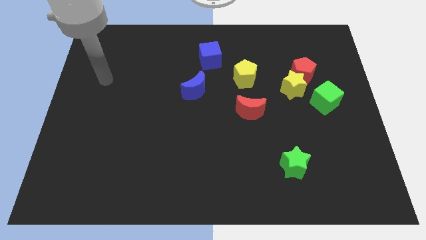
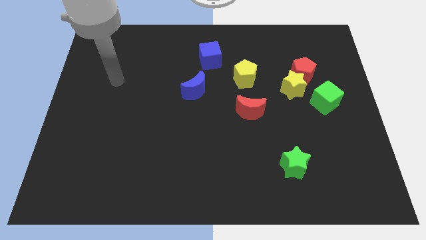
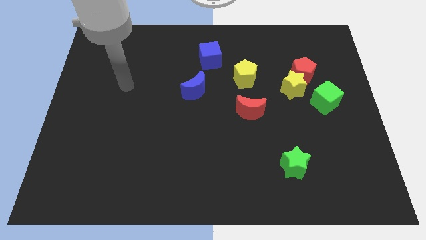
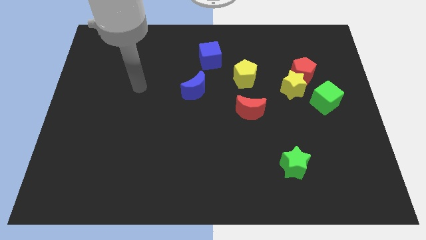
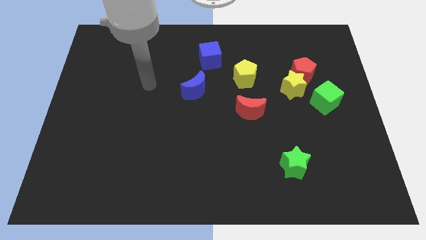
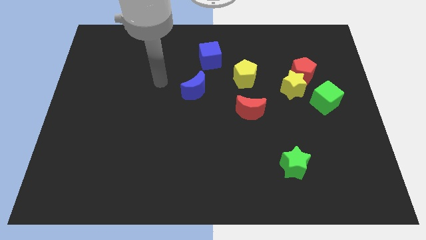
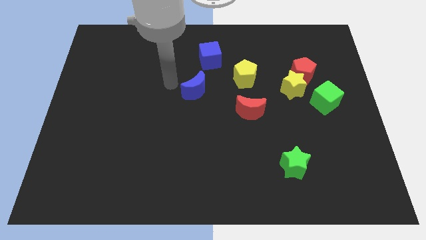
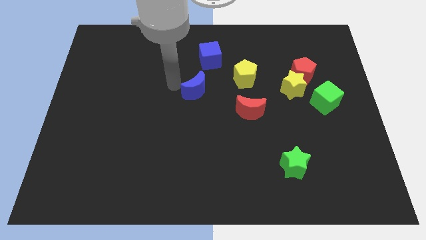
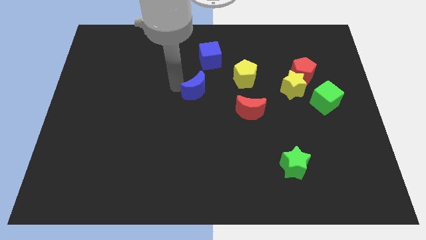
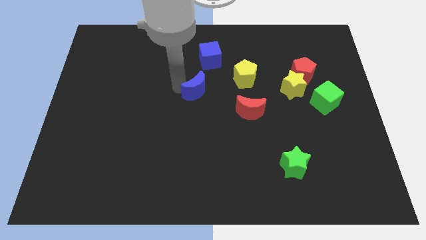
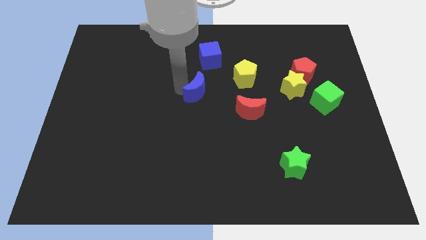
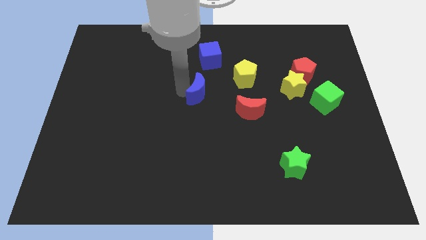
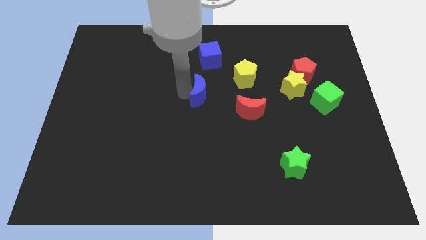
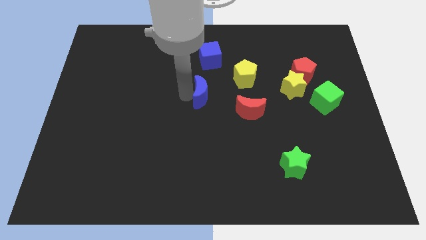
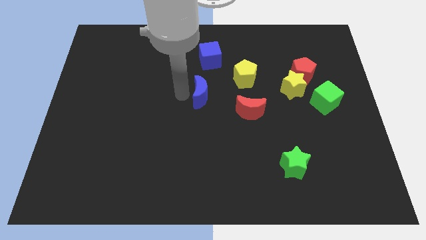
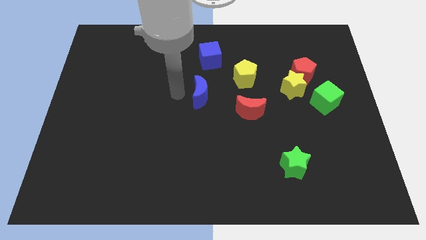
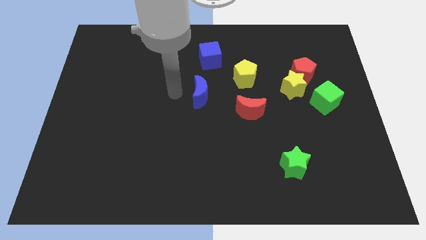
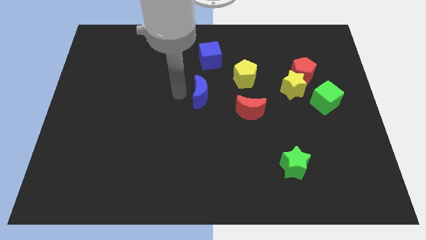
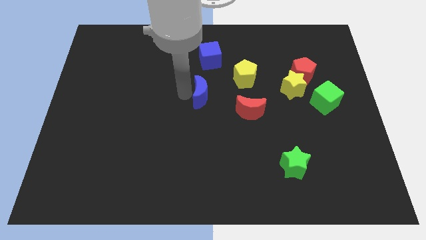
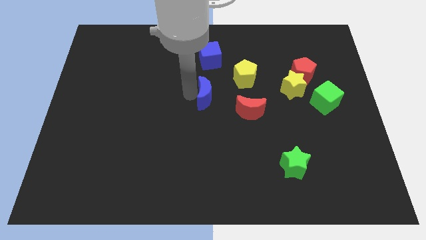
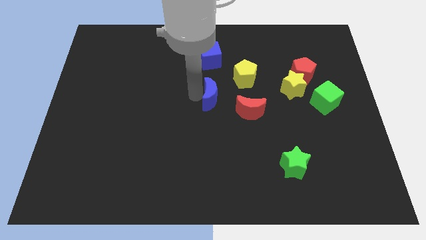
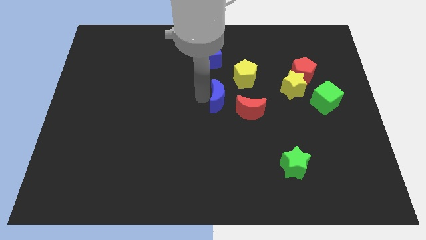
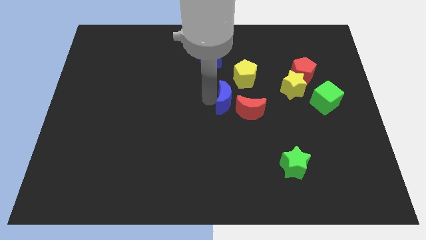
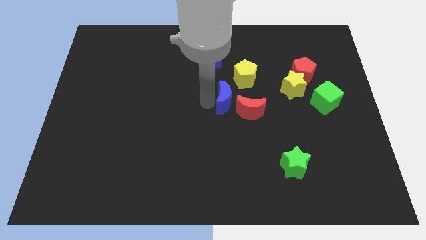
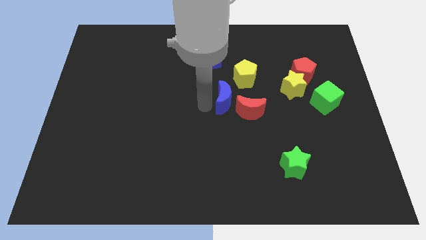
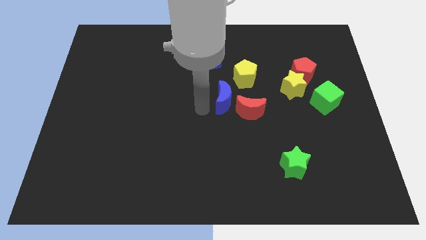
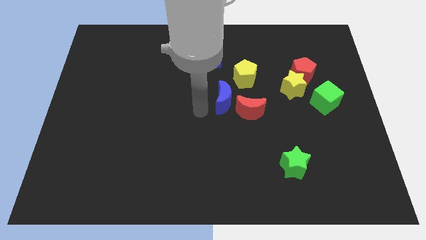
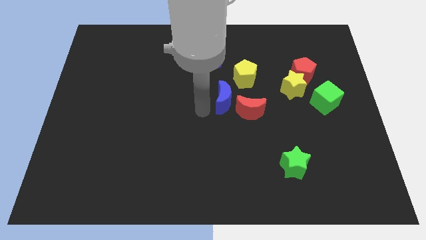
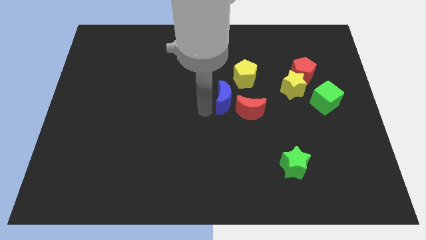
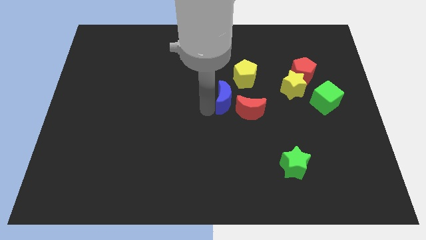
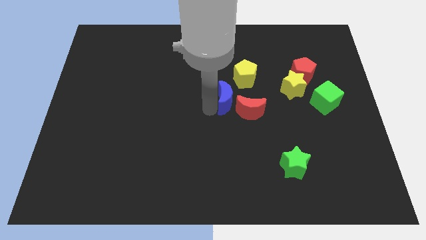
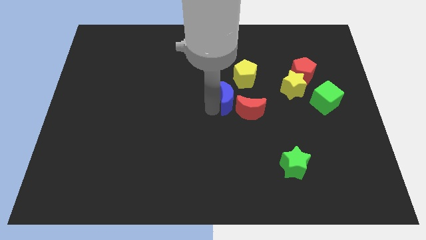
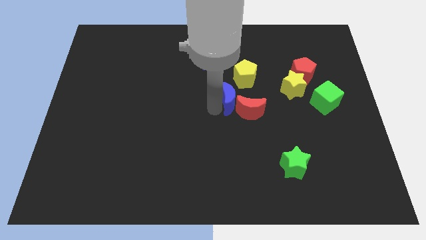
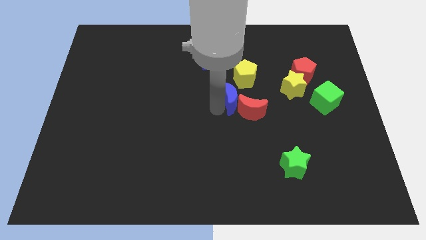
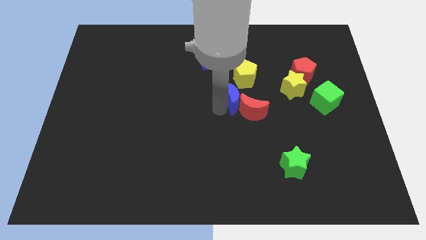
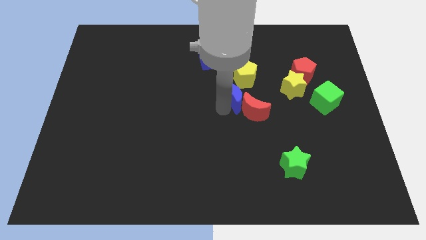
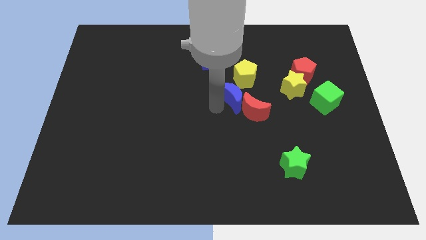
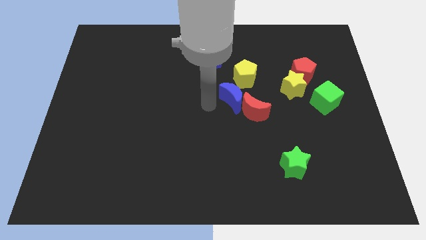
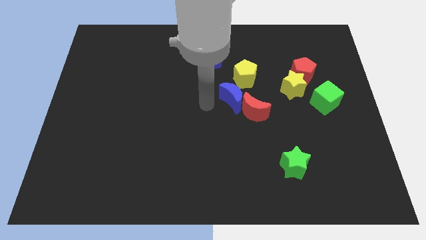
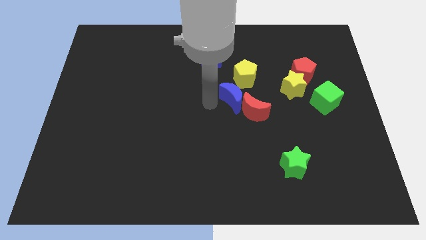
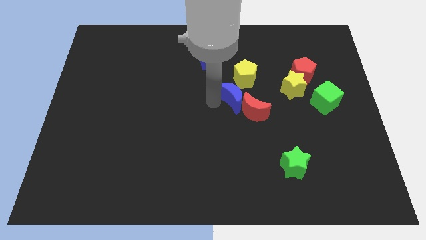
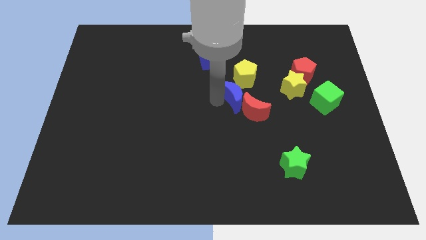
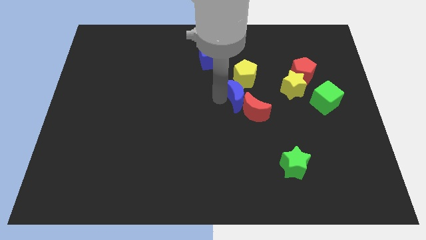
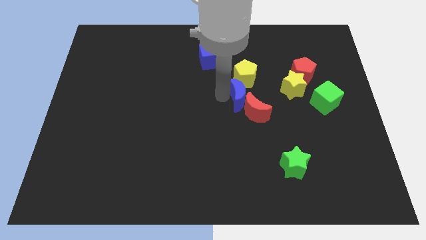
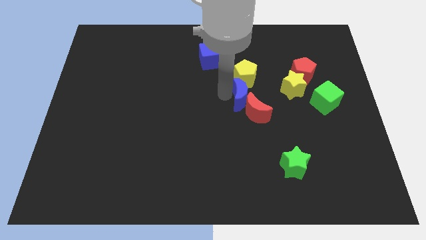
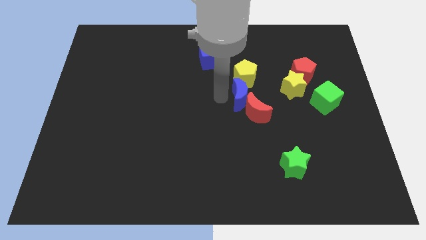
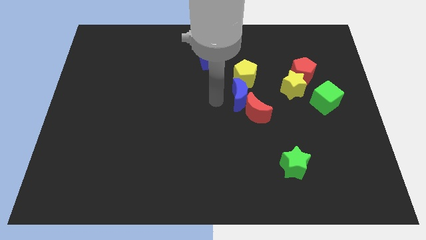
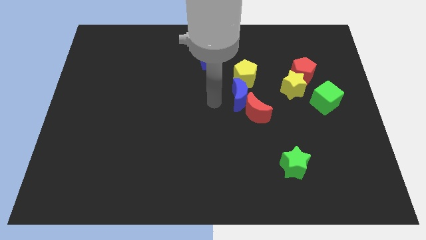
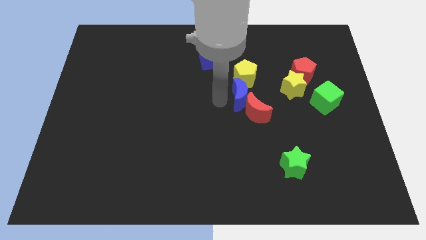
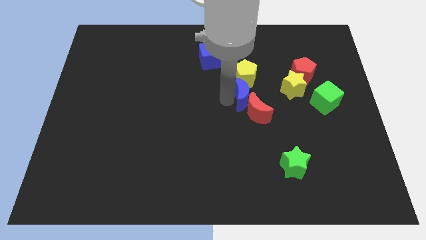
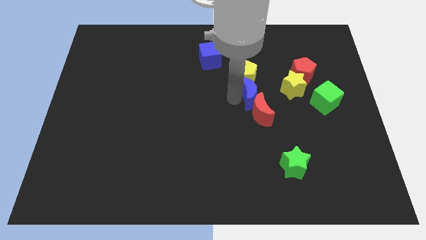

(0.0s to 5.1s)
put the blue moon to the bottom right of the yellow pentagon

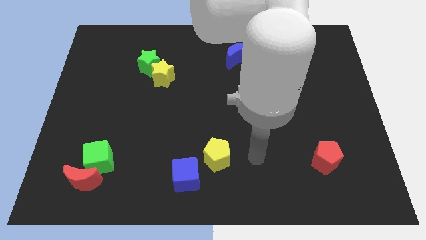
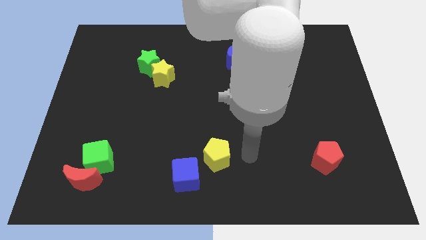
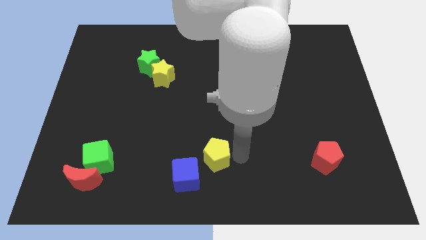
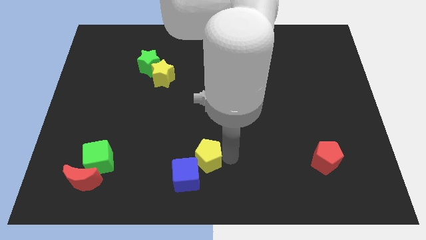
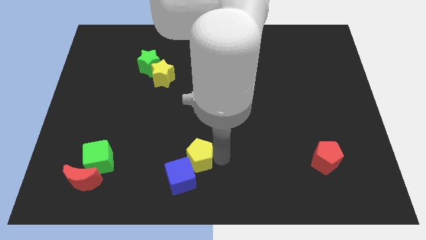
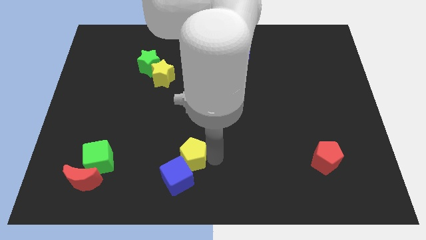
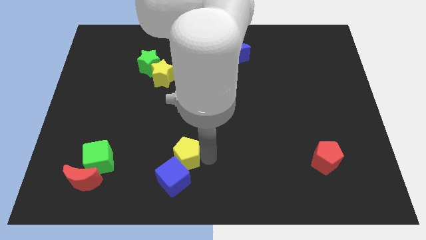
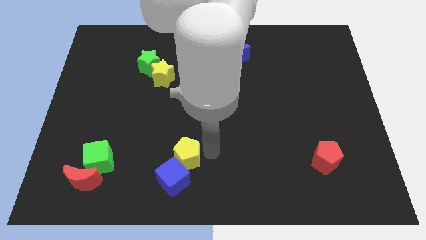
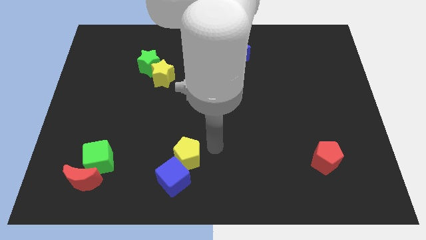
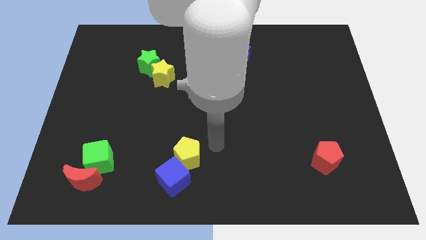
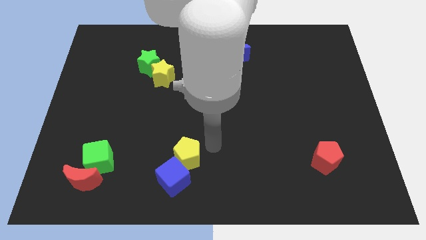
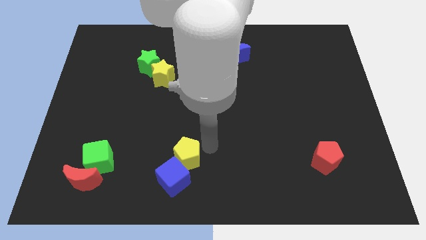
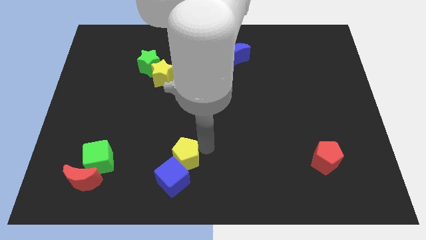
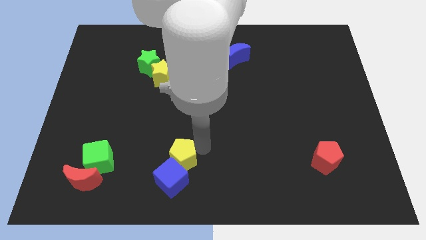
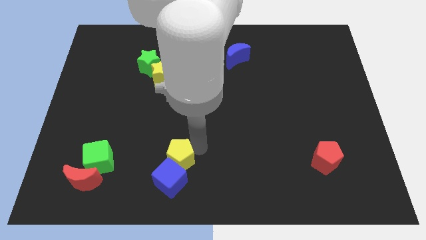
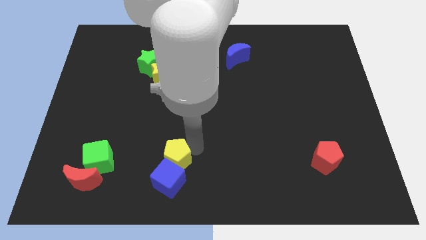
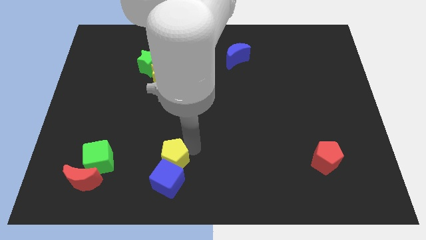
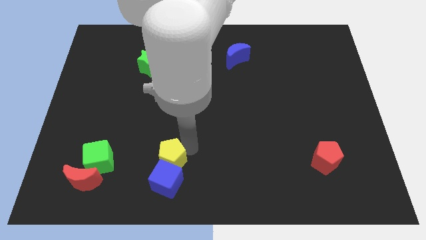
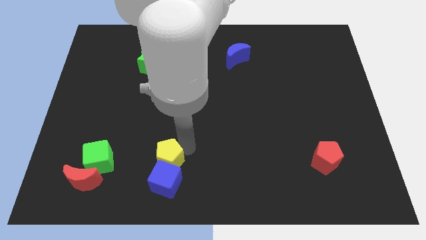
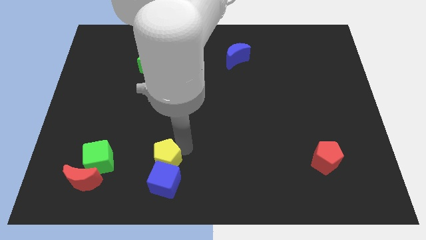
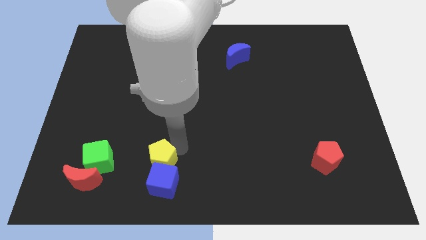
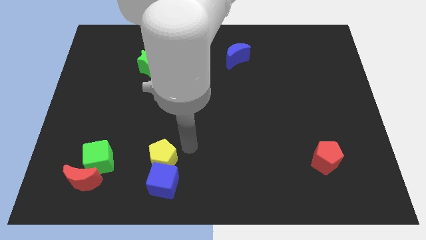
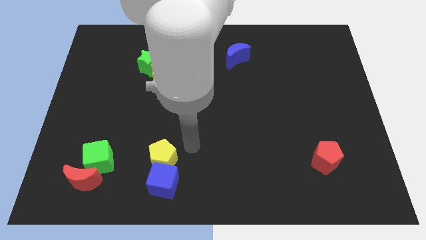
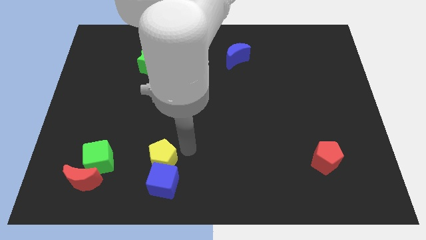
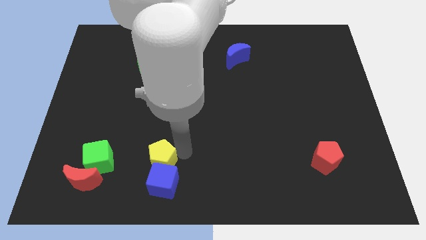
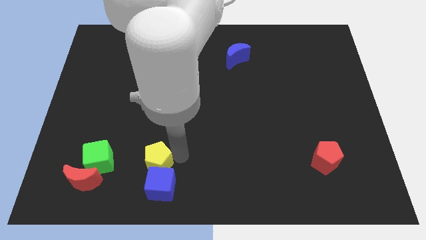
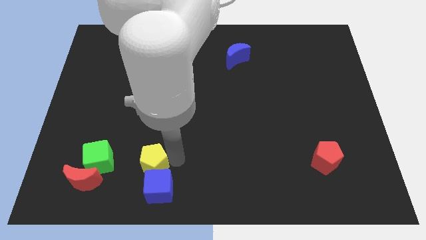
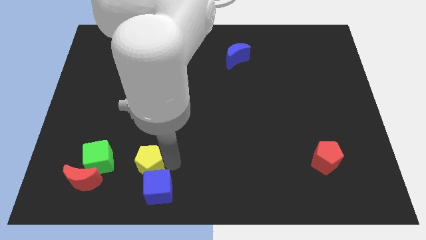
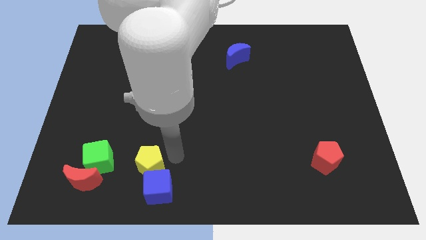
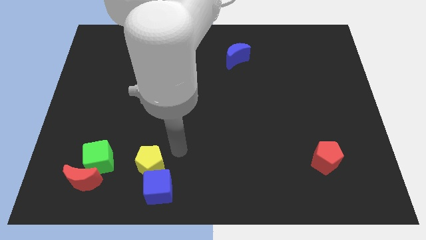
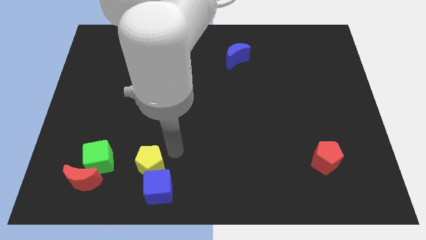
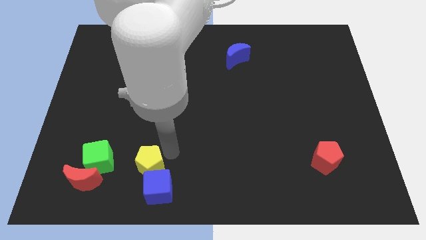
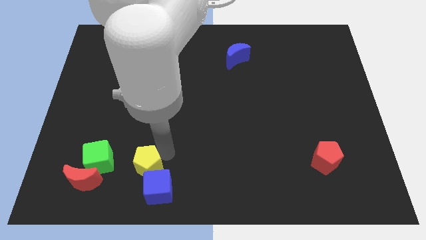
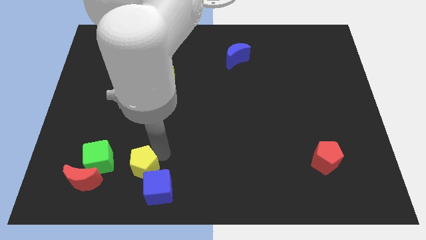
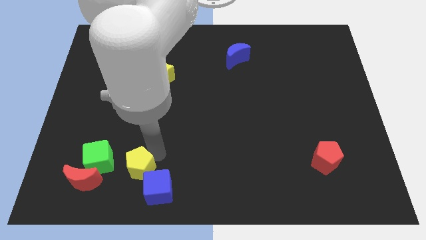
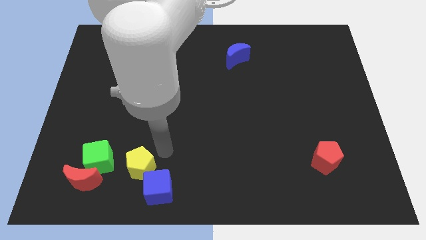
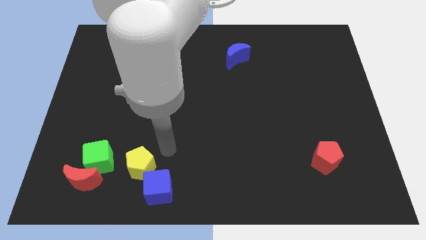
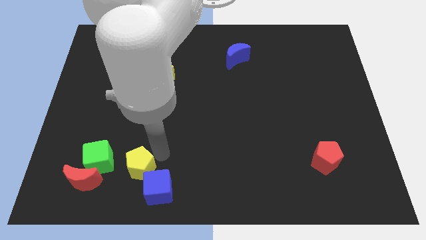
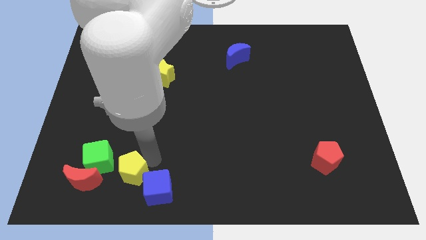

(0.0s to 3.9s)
slide the yellow pentagon to the left side of the blue cube
